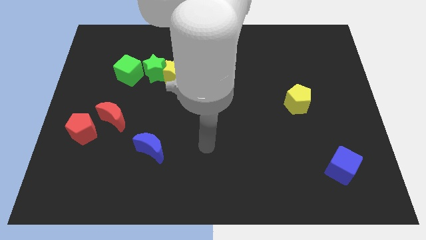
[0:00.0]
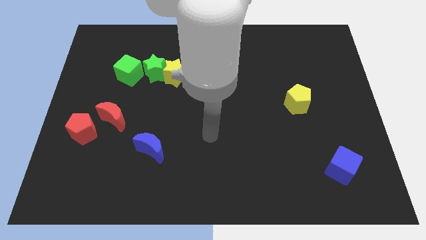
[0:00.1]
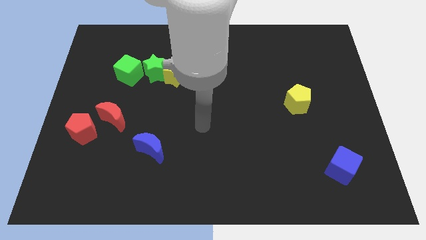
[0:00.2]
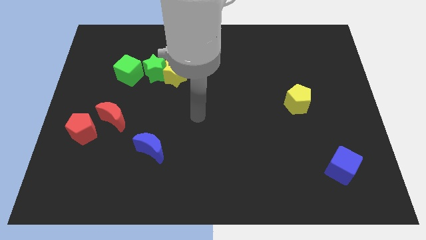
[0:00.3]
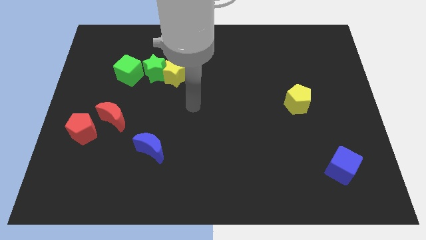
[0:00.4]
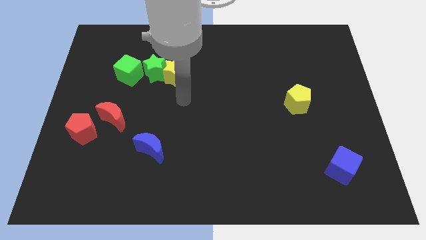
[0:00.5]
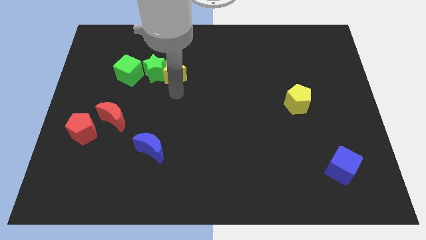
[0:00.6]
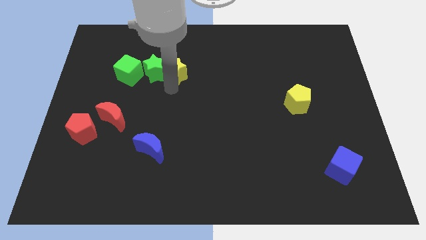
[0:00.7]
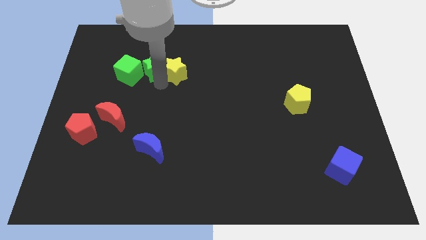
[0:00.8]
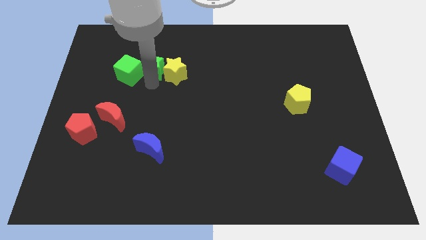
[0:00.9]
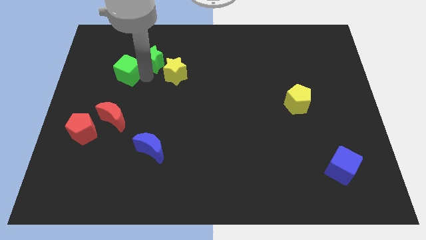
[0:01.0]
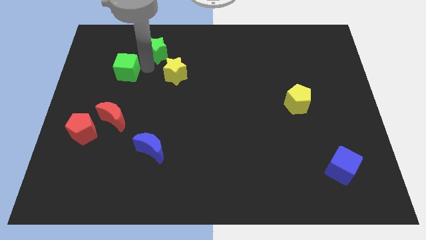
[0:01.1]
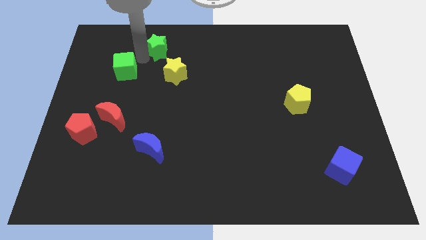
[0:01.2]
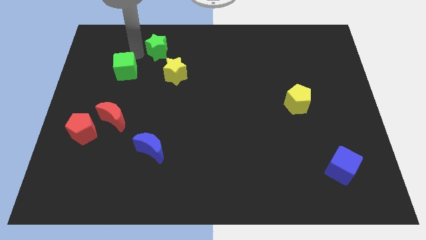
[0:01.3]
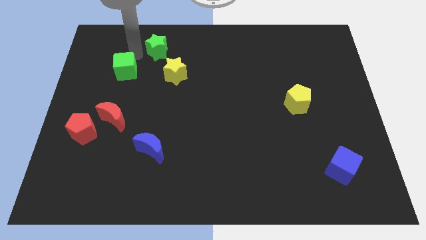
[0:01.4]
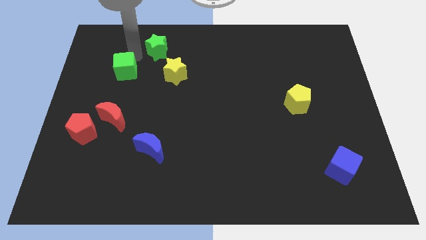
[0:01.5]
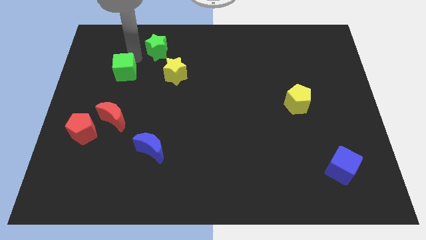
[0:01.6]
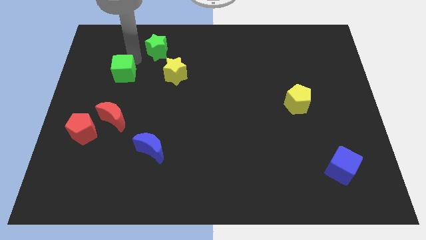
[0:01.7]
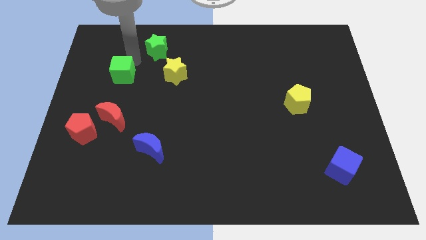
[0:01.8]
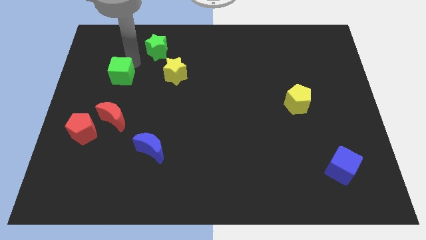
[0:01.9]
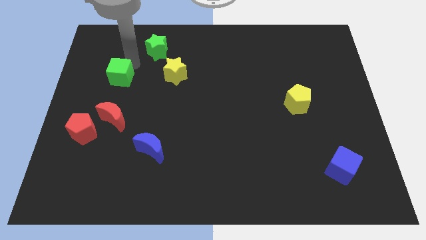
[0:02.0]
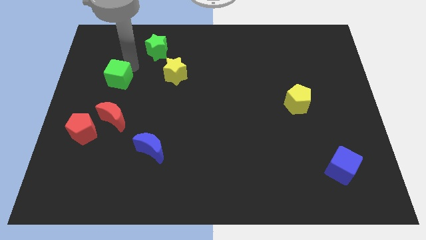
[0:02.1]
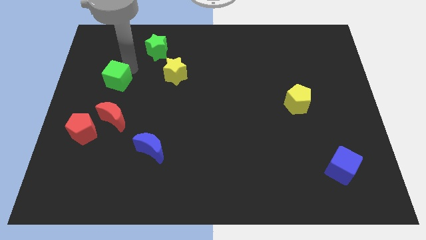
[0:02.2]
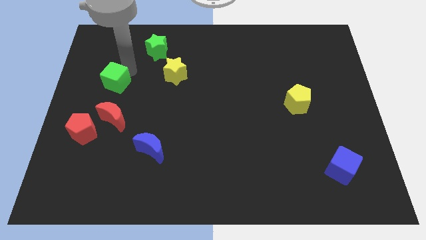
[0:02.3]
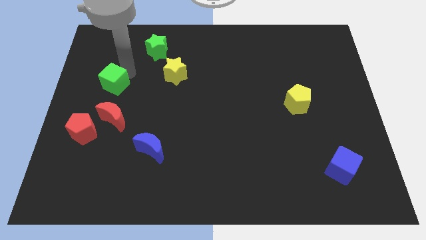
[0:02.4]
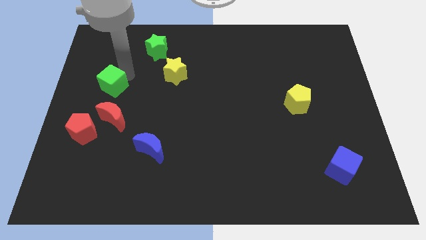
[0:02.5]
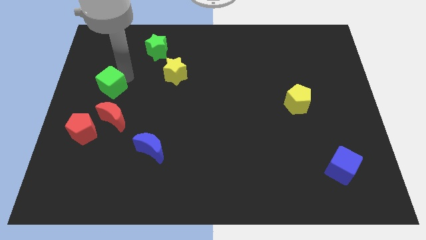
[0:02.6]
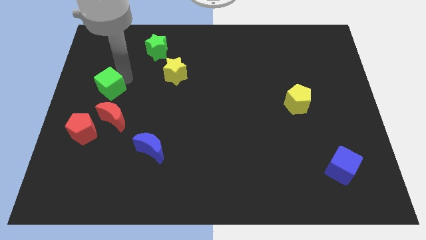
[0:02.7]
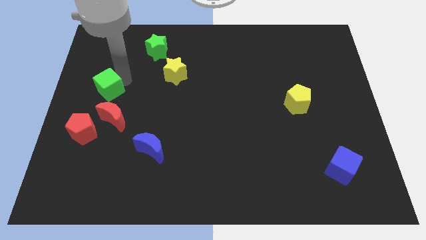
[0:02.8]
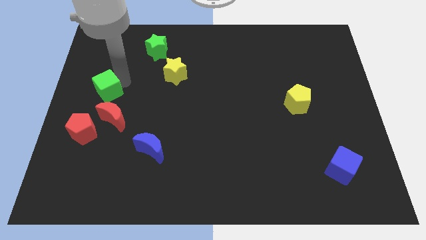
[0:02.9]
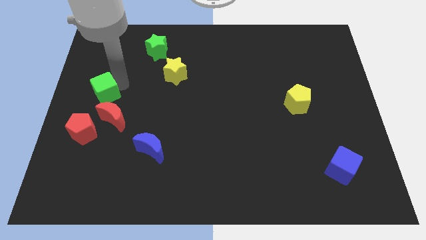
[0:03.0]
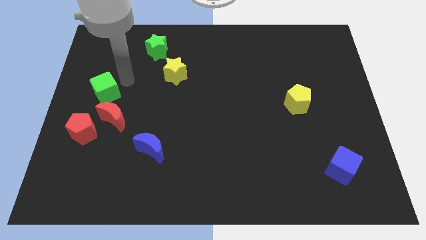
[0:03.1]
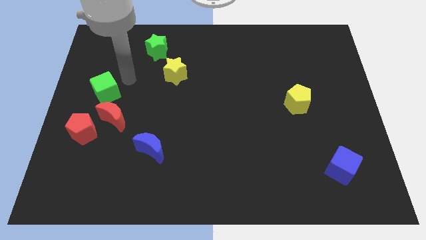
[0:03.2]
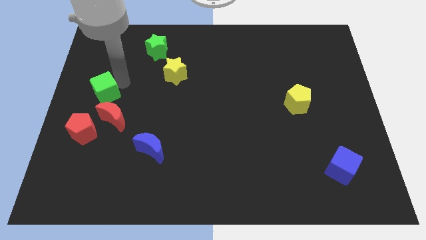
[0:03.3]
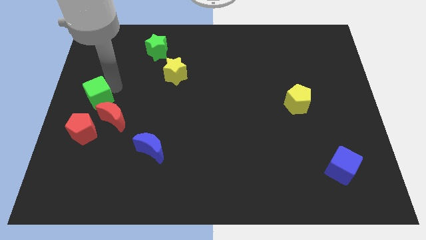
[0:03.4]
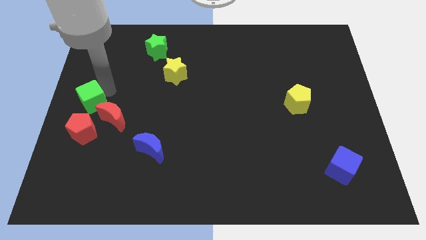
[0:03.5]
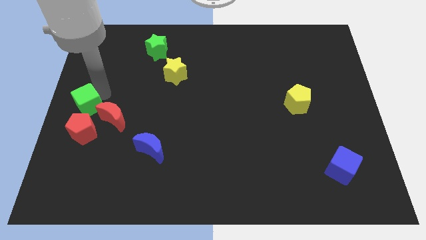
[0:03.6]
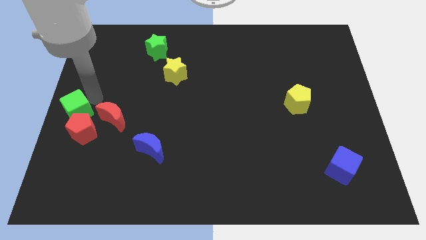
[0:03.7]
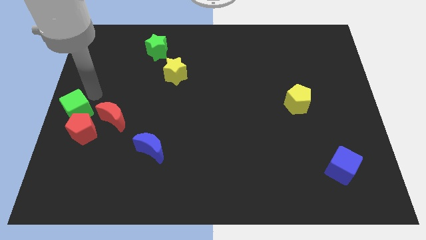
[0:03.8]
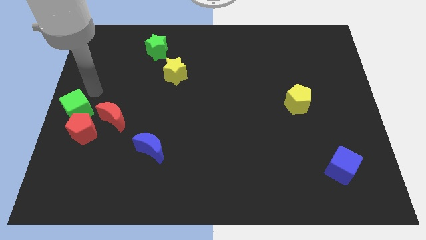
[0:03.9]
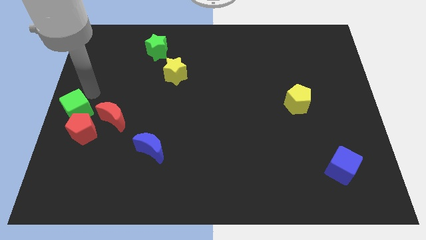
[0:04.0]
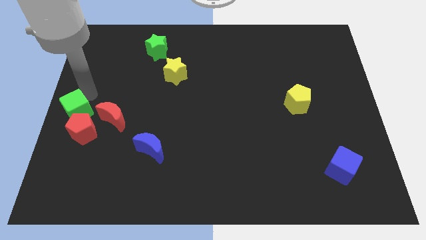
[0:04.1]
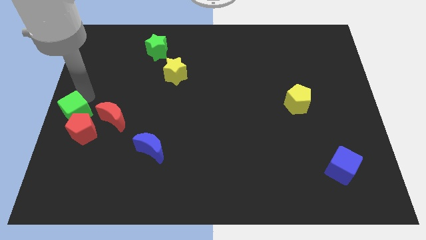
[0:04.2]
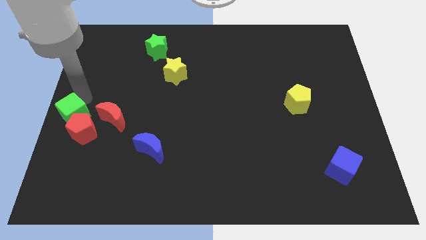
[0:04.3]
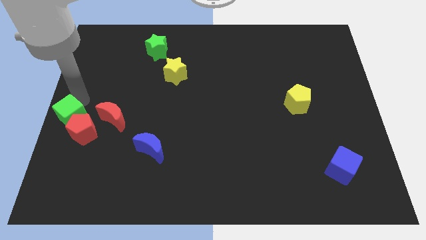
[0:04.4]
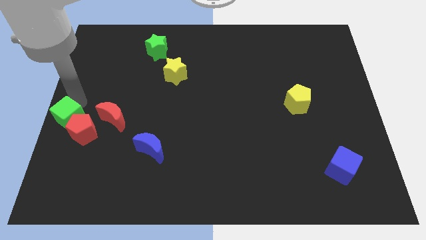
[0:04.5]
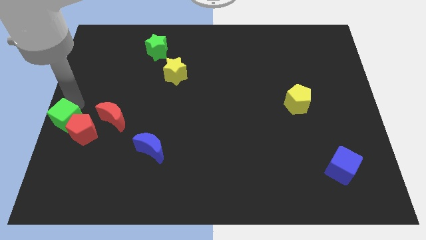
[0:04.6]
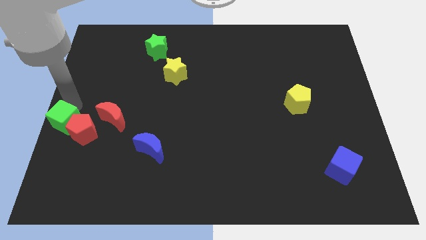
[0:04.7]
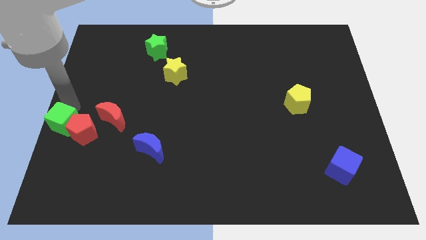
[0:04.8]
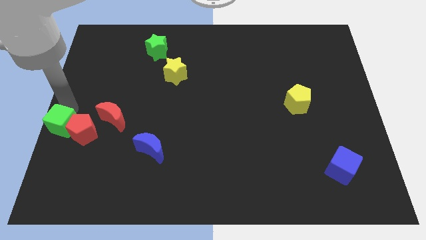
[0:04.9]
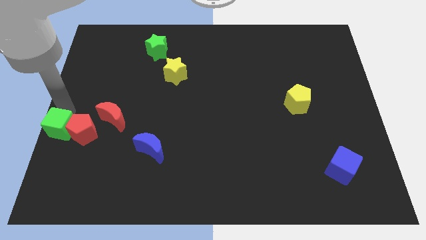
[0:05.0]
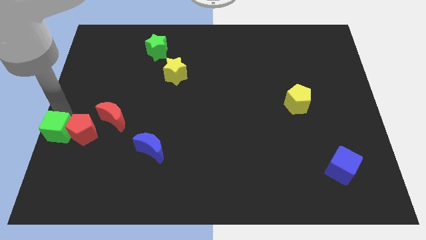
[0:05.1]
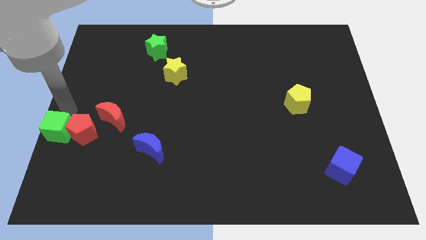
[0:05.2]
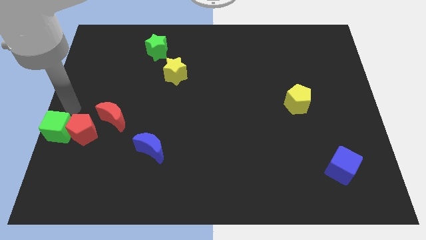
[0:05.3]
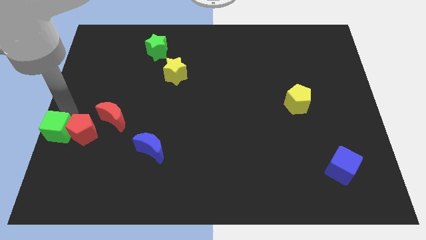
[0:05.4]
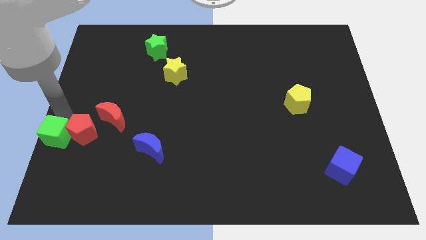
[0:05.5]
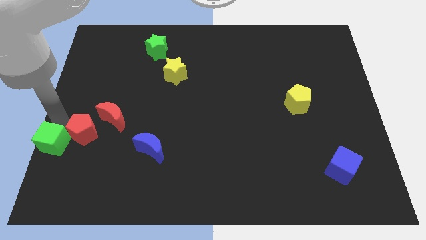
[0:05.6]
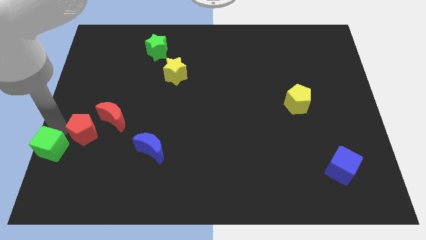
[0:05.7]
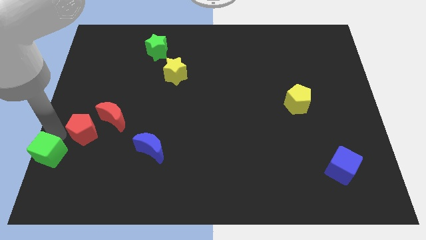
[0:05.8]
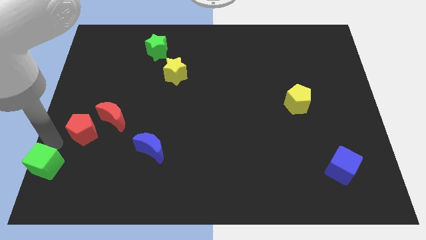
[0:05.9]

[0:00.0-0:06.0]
push the green cube to the lower left corner

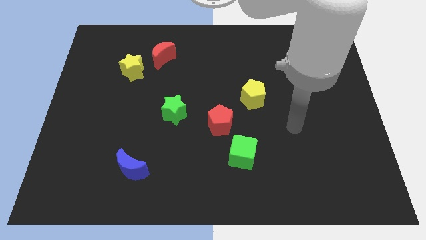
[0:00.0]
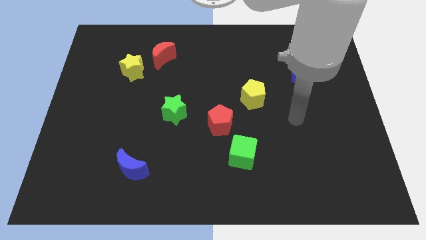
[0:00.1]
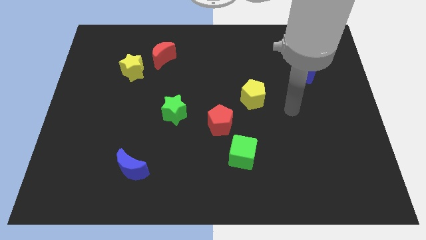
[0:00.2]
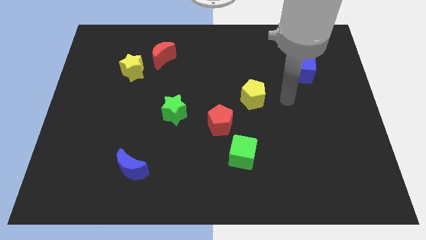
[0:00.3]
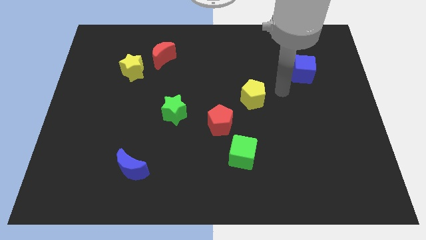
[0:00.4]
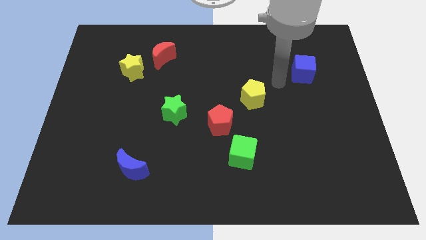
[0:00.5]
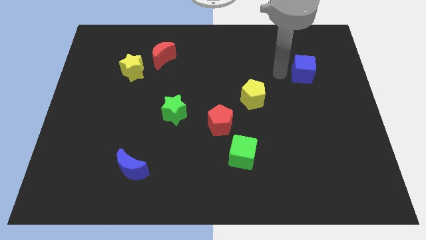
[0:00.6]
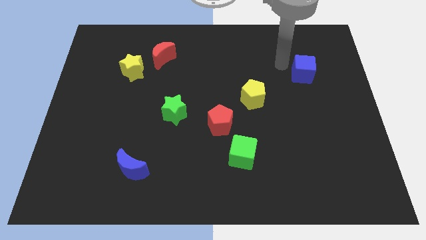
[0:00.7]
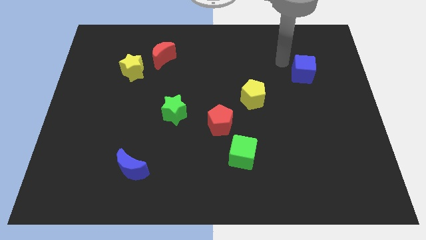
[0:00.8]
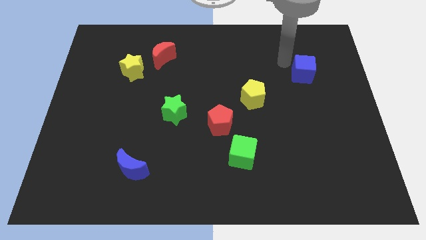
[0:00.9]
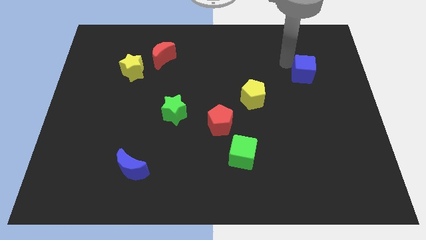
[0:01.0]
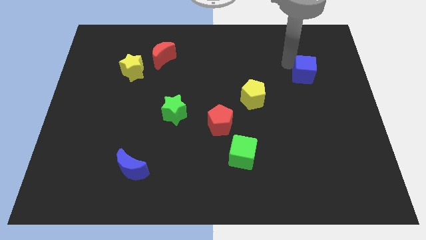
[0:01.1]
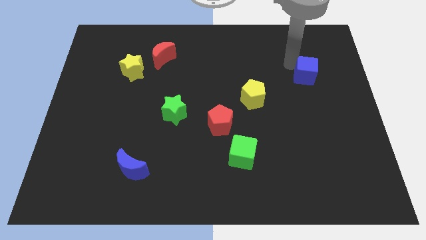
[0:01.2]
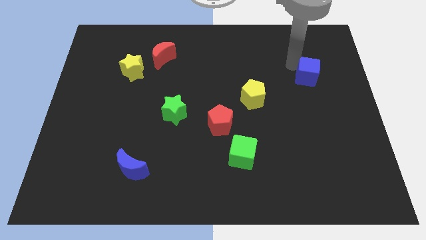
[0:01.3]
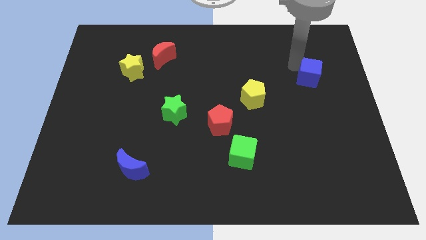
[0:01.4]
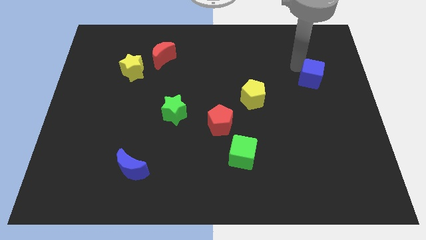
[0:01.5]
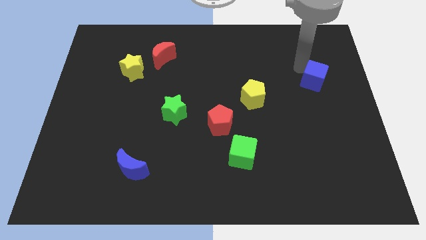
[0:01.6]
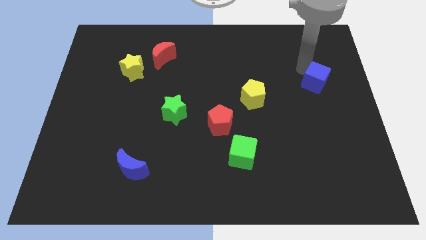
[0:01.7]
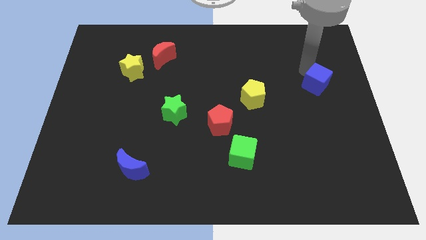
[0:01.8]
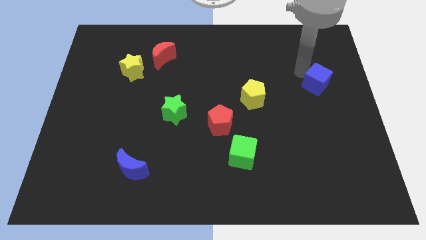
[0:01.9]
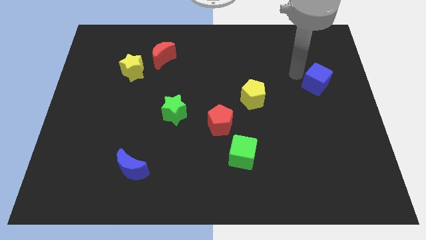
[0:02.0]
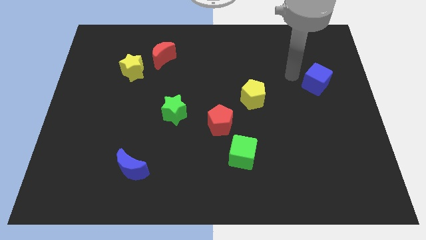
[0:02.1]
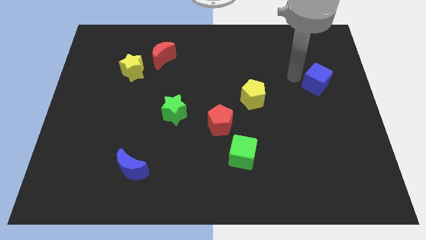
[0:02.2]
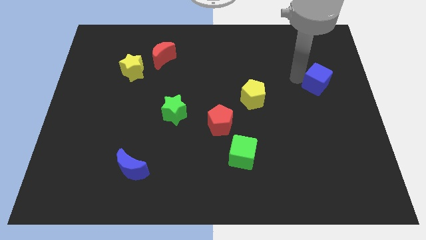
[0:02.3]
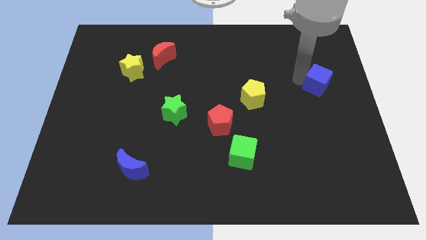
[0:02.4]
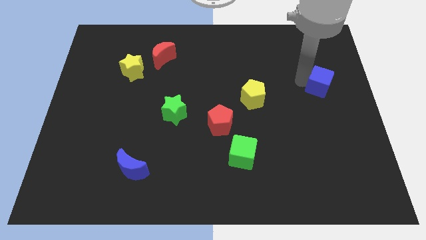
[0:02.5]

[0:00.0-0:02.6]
put the blue cube to the right side
